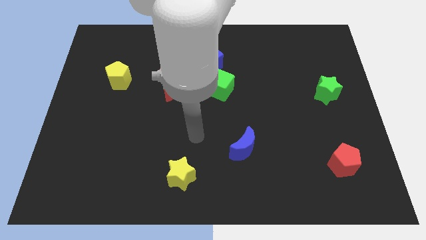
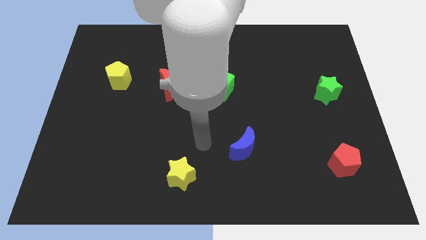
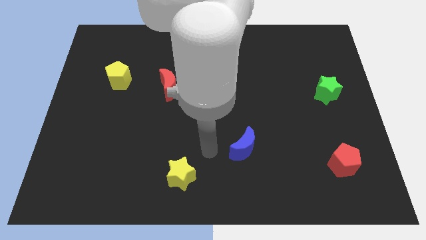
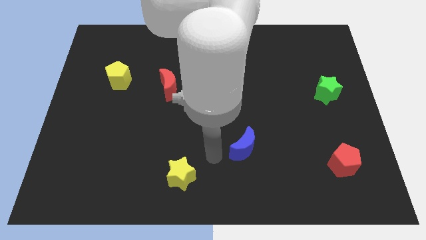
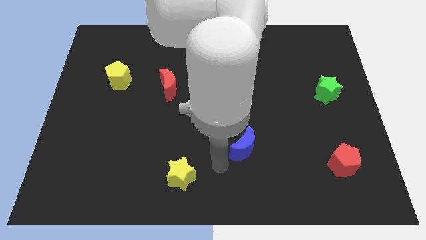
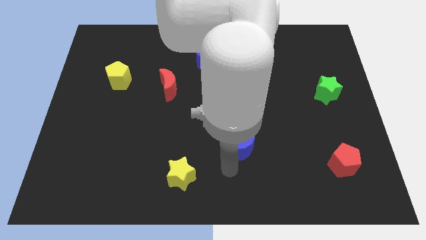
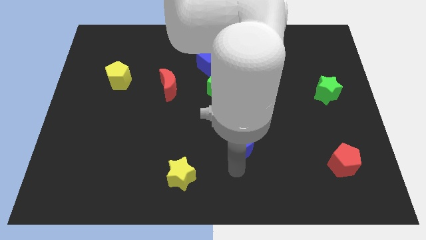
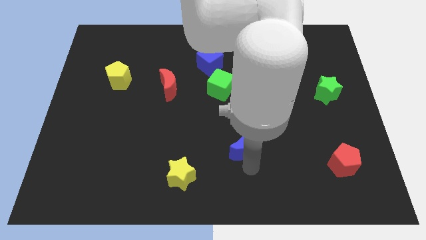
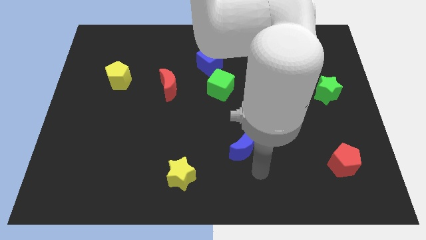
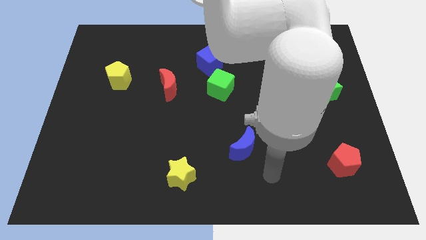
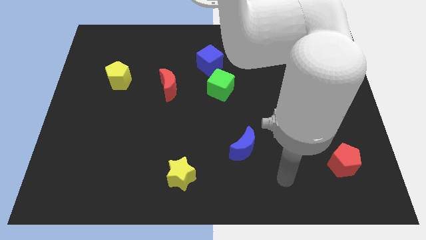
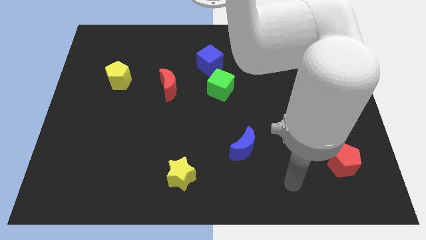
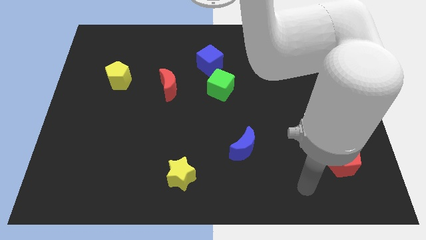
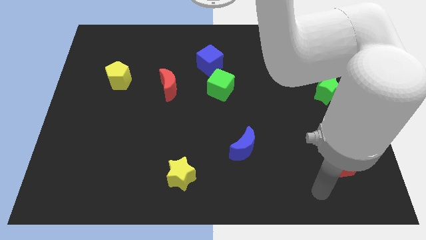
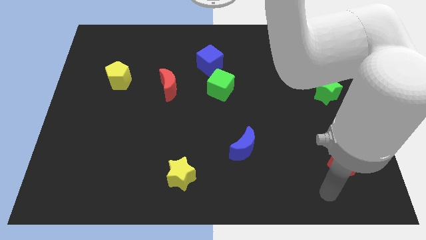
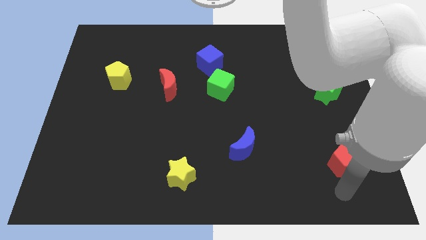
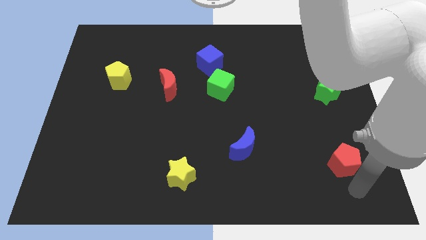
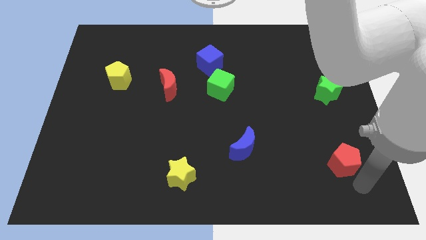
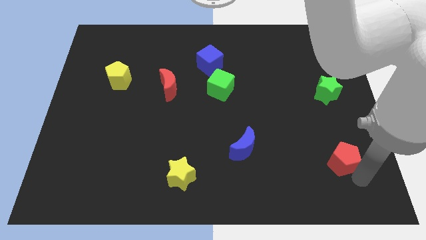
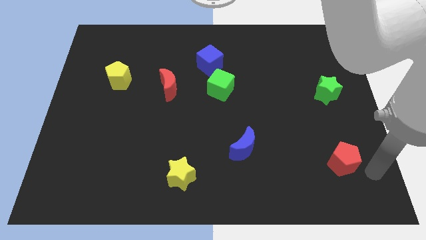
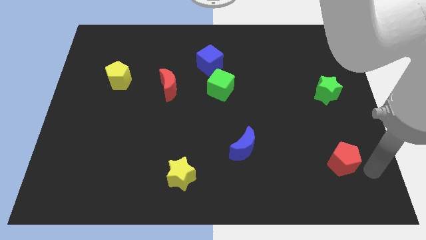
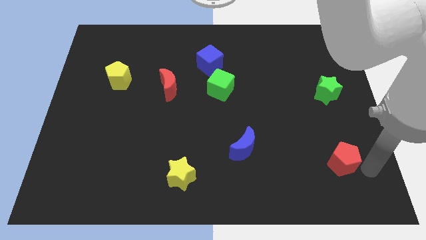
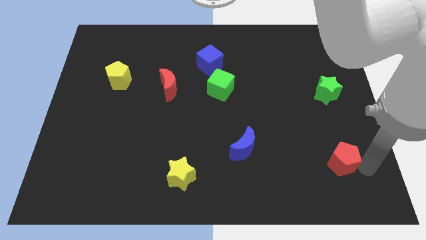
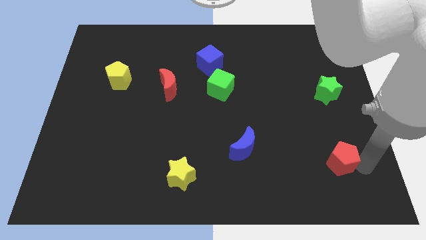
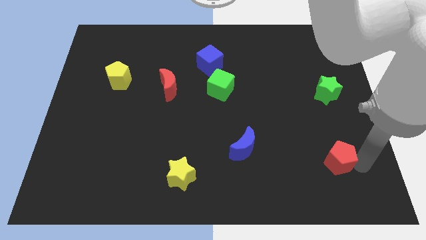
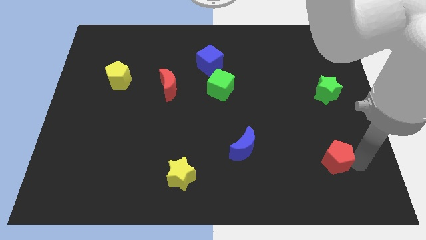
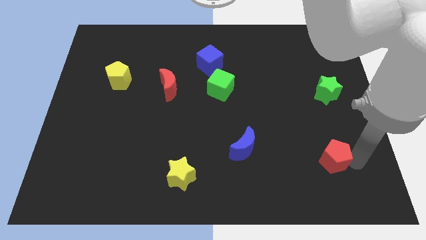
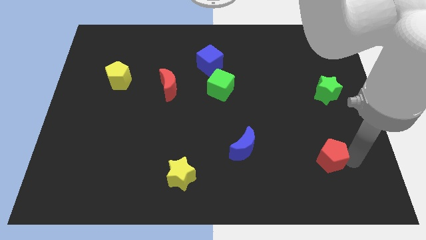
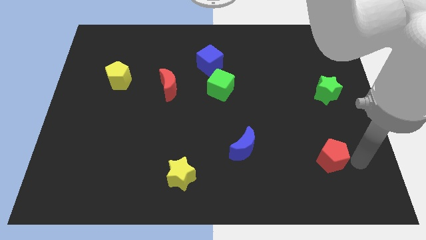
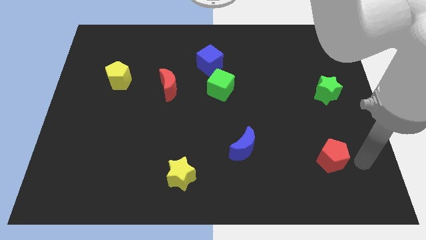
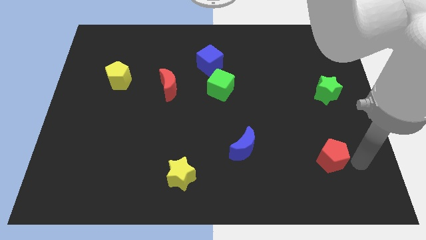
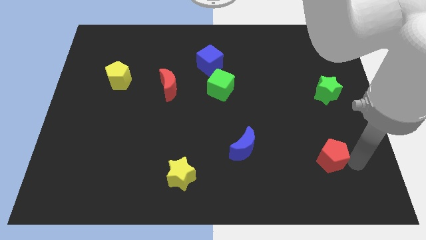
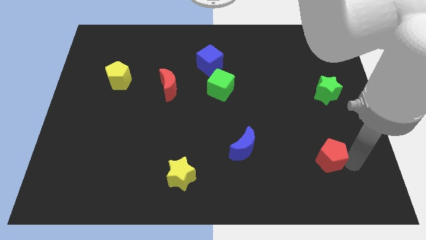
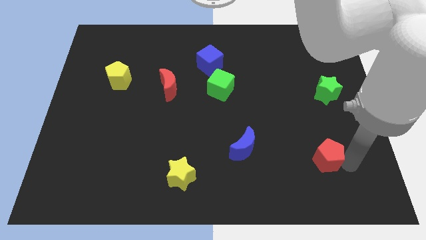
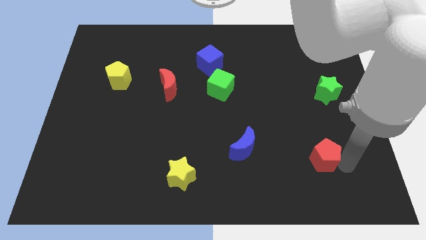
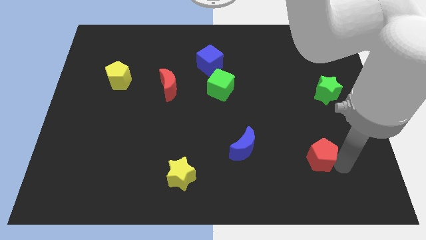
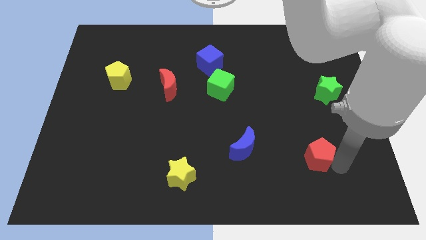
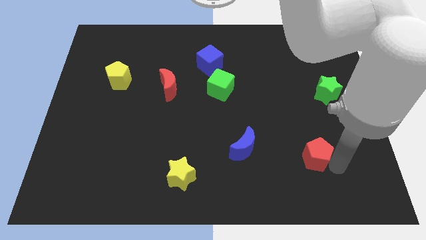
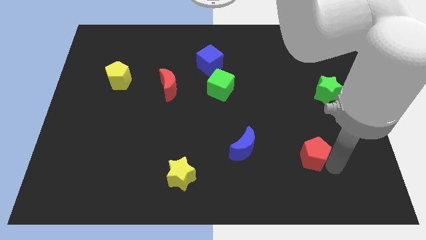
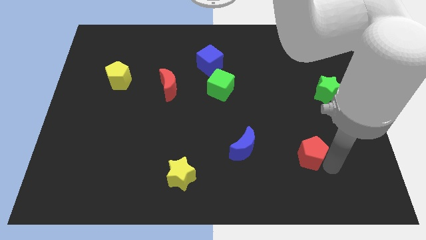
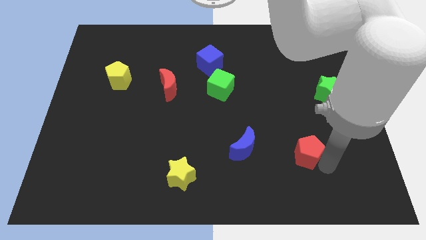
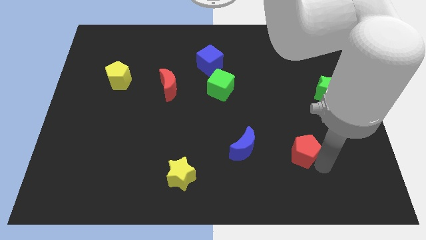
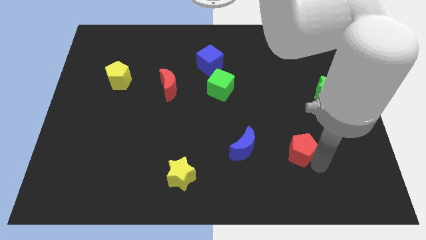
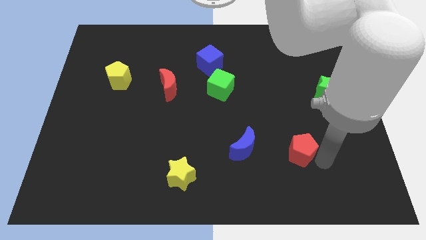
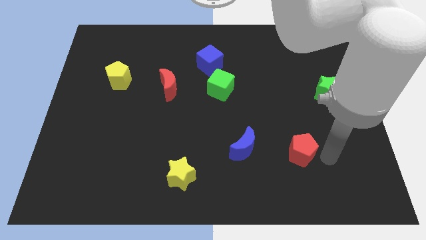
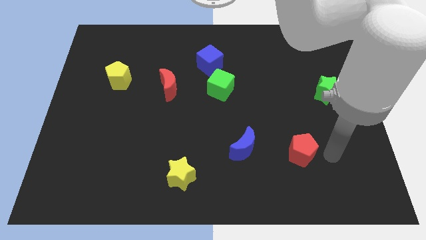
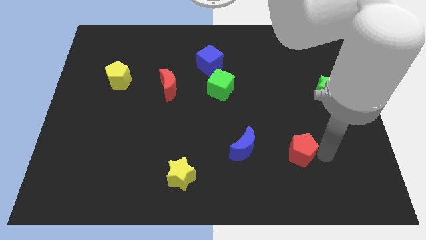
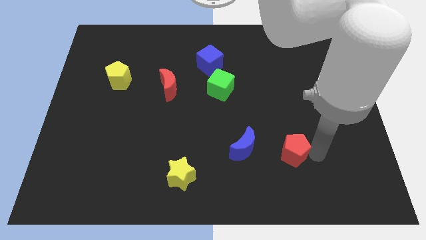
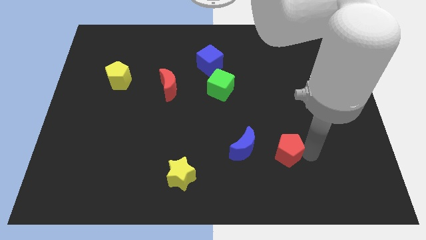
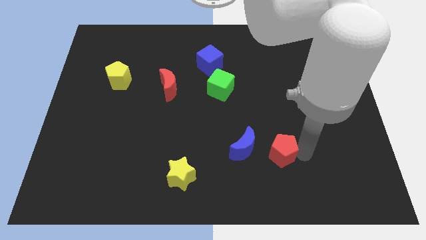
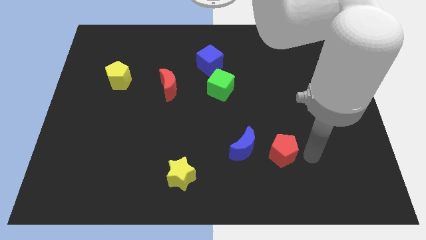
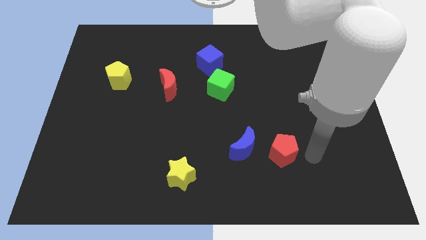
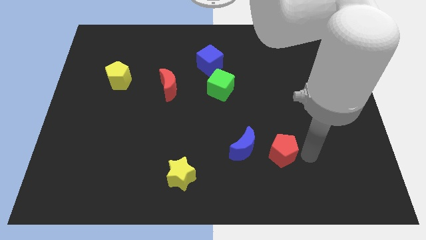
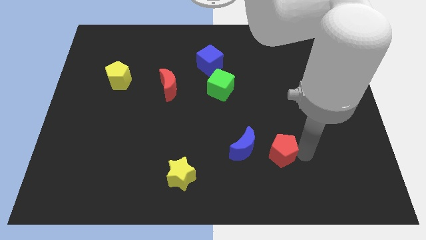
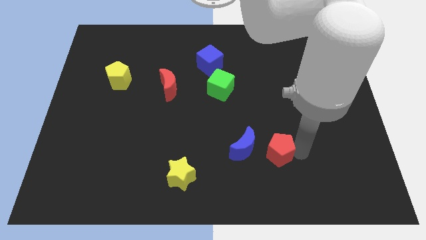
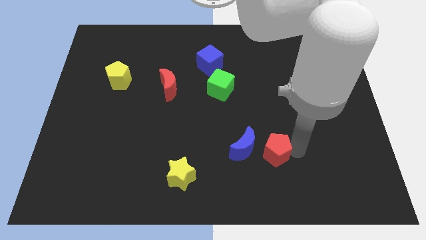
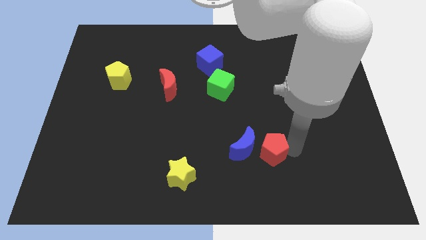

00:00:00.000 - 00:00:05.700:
slide the red pentagon towards the blue moon

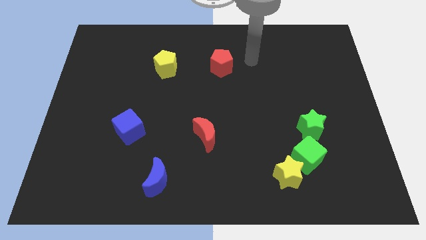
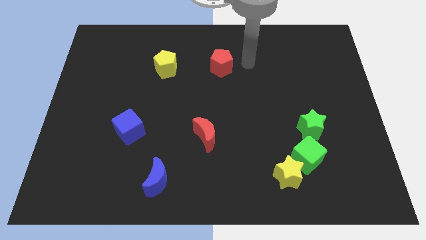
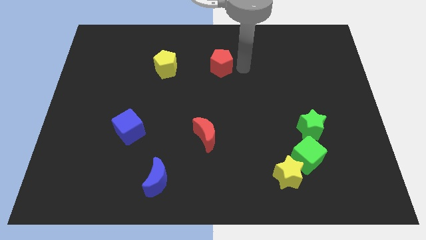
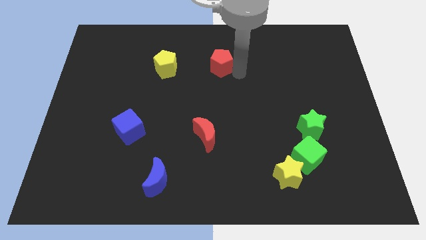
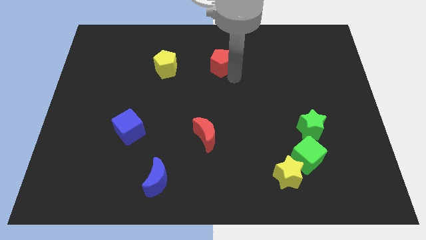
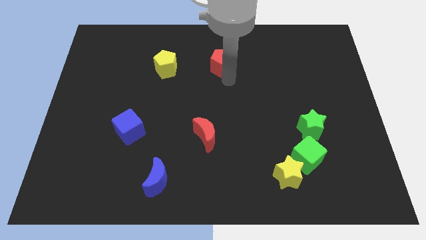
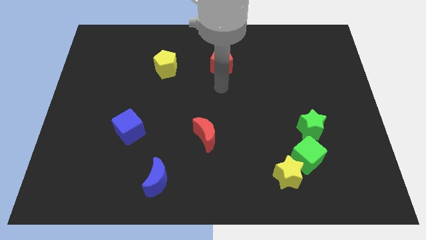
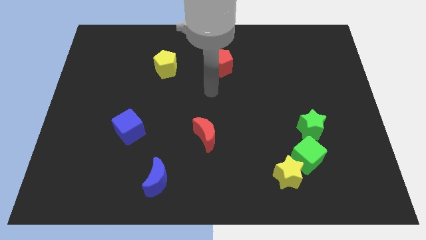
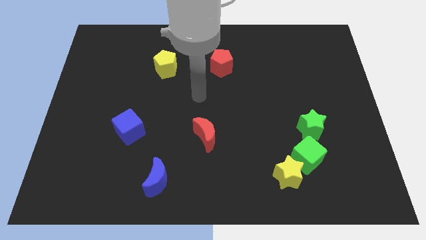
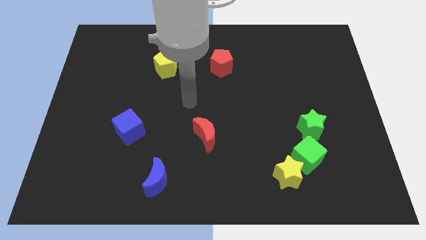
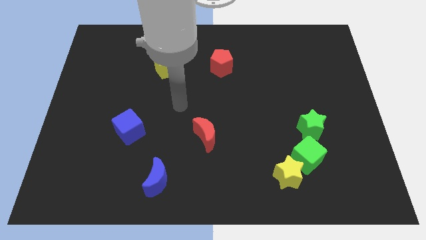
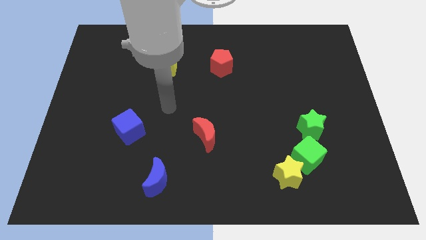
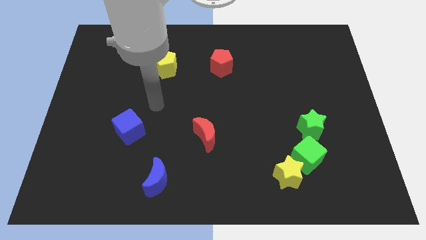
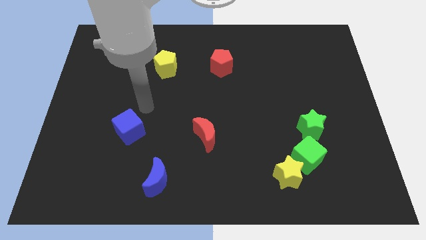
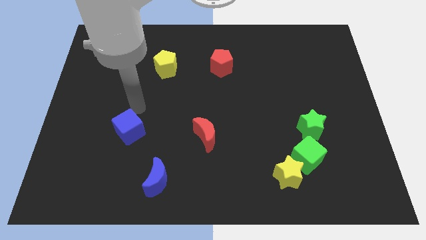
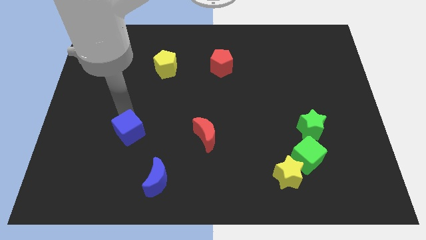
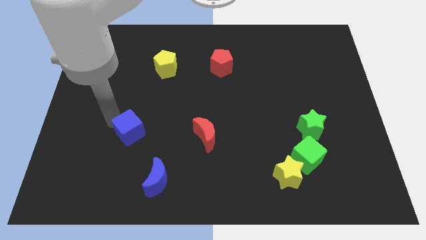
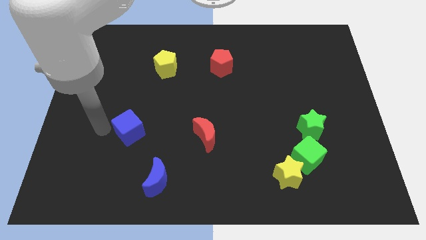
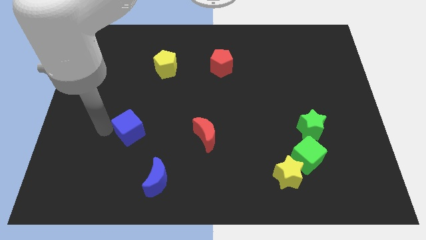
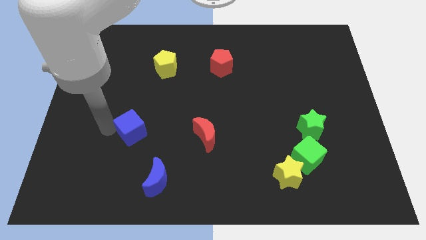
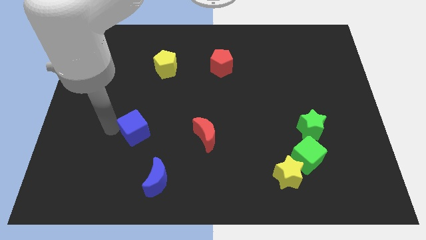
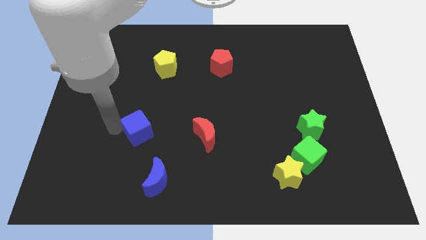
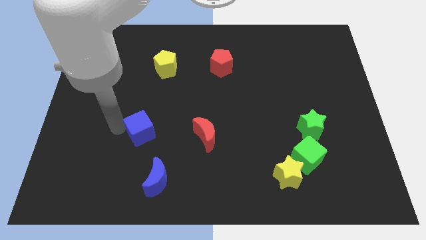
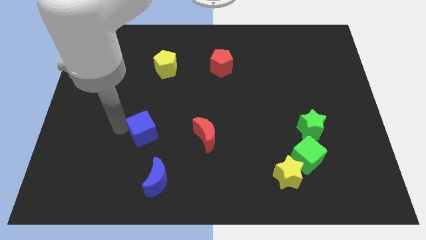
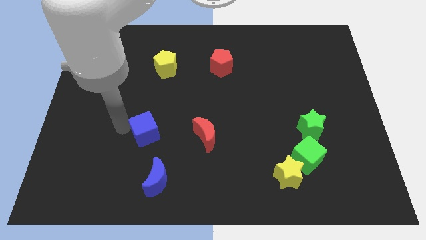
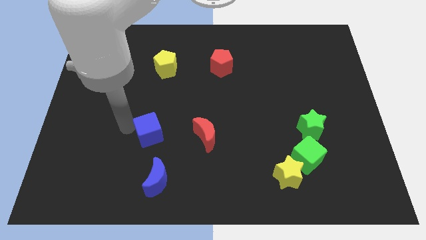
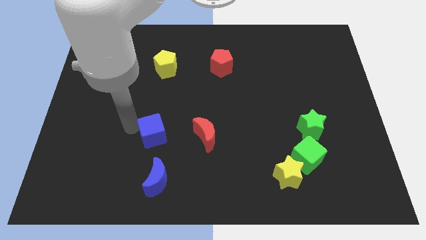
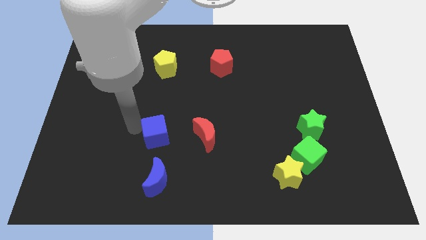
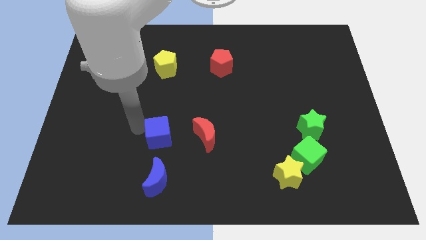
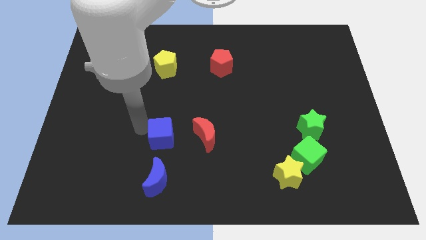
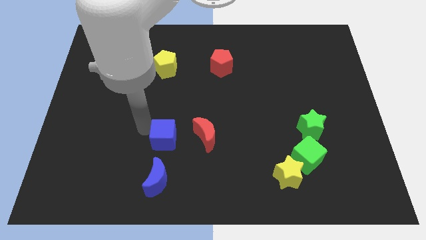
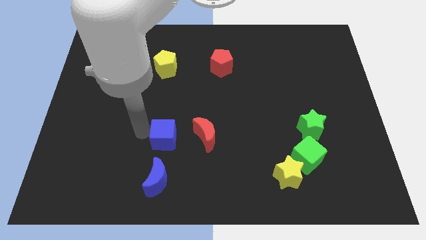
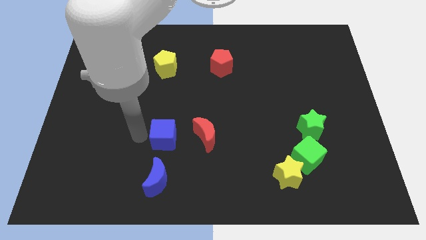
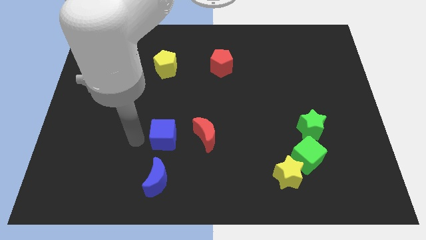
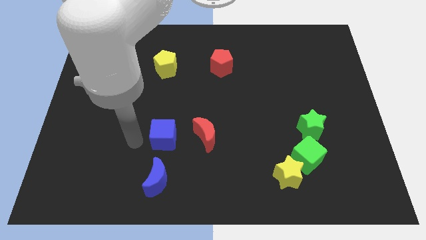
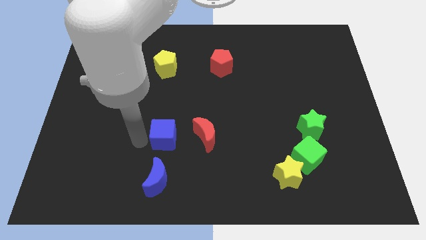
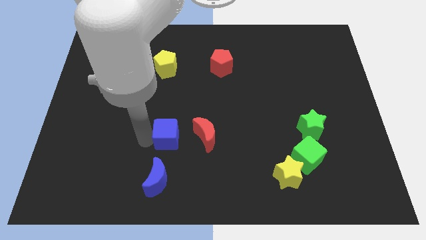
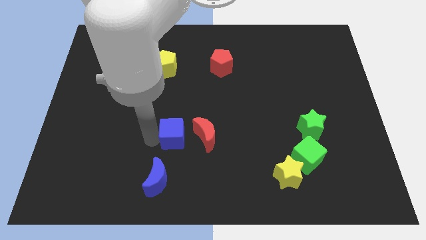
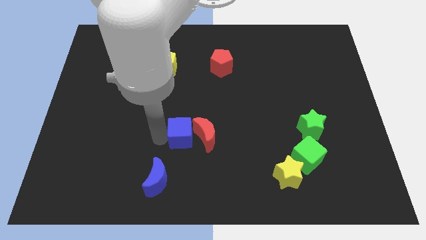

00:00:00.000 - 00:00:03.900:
put the blue cube next to the red moon
